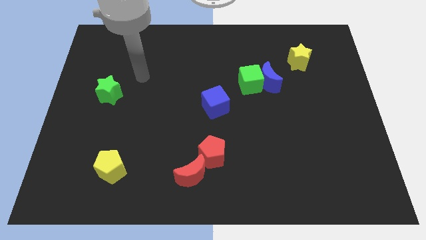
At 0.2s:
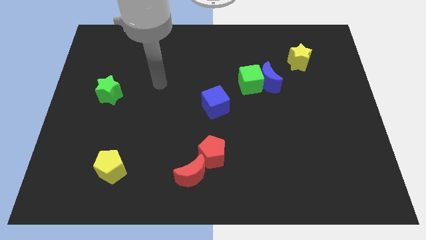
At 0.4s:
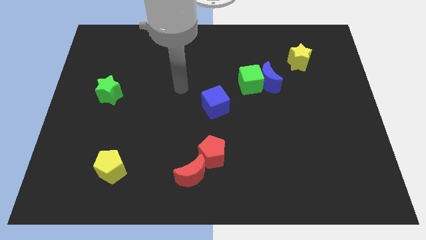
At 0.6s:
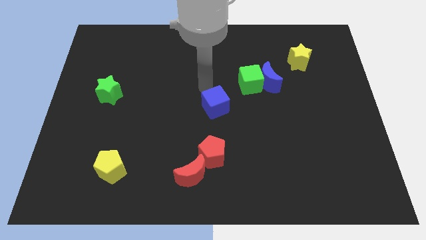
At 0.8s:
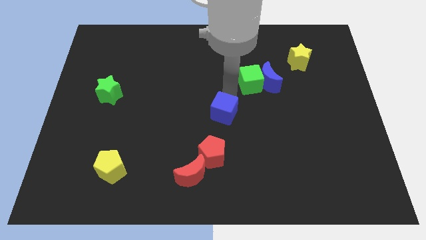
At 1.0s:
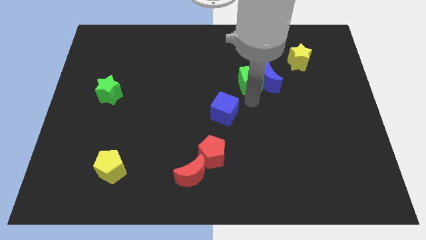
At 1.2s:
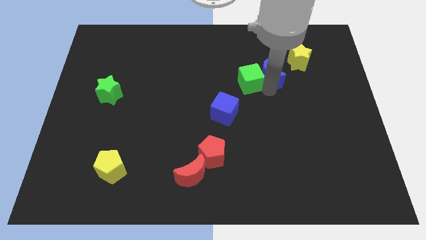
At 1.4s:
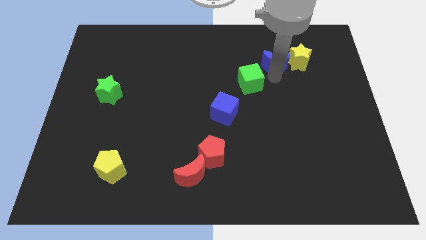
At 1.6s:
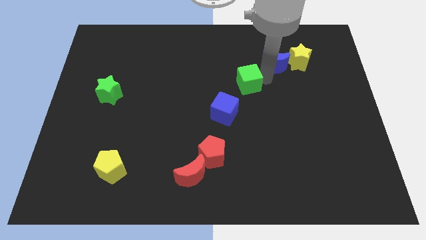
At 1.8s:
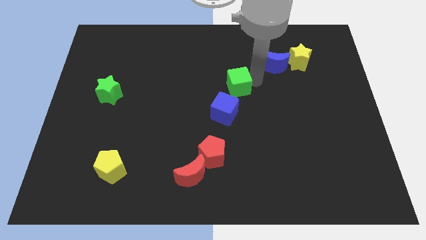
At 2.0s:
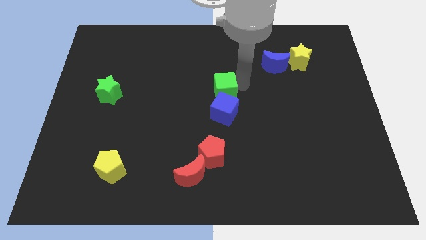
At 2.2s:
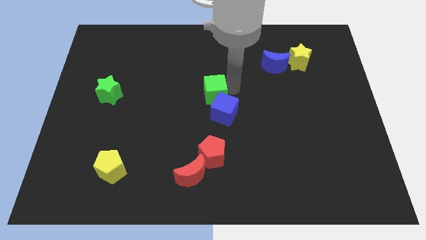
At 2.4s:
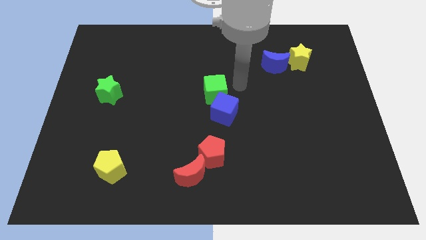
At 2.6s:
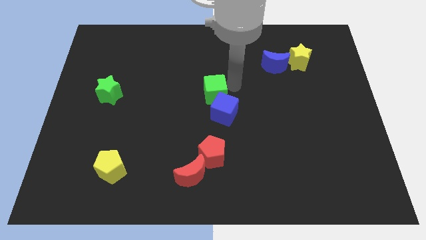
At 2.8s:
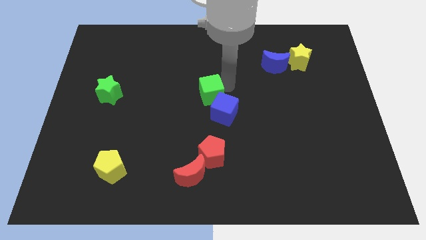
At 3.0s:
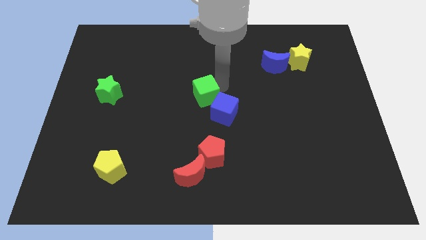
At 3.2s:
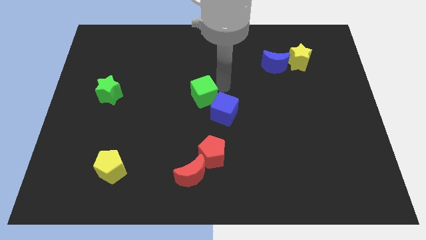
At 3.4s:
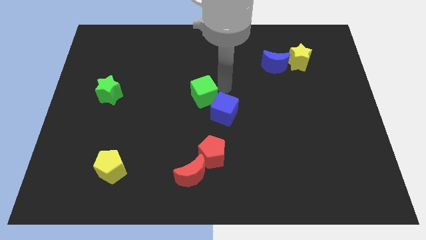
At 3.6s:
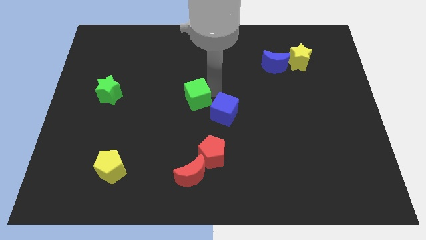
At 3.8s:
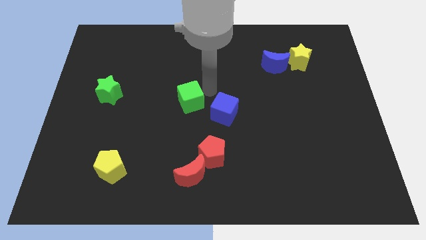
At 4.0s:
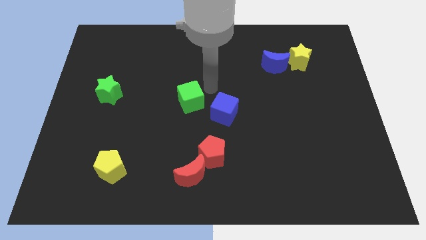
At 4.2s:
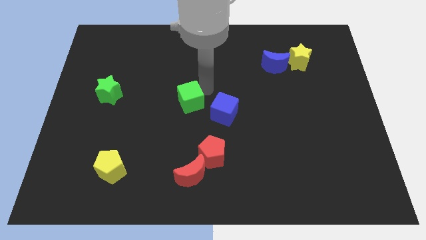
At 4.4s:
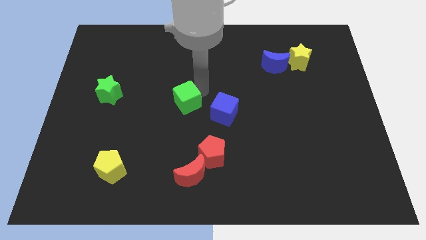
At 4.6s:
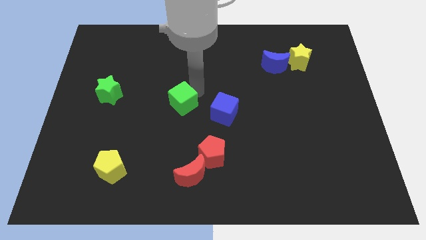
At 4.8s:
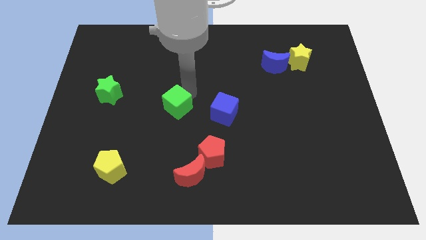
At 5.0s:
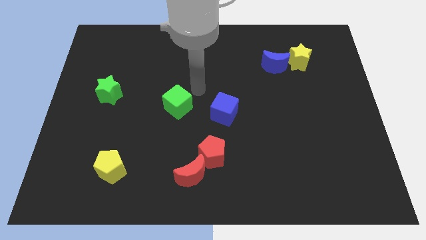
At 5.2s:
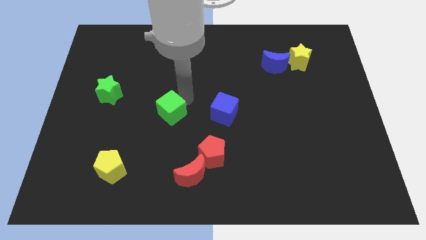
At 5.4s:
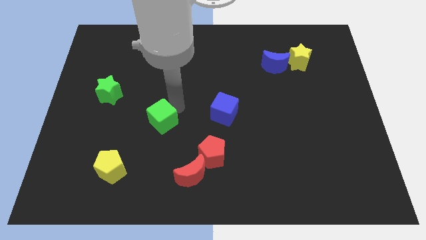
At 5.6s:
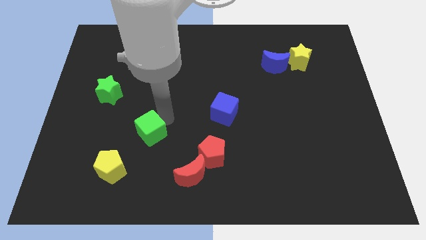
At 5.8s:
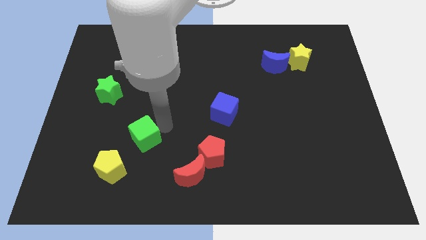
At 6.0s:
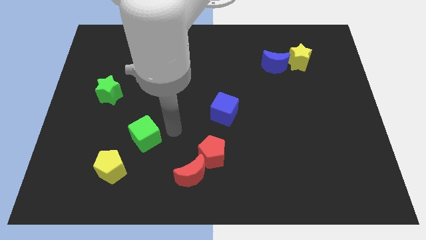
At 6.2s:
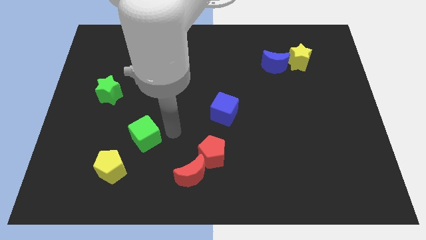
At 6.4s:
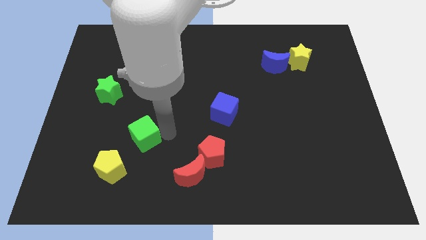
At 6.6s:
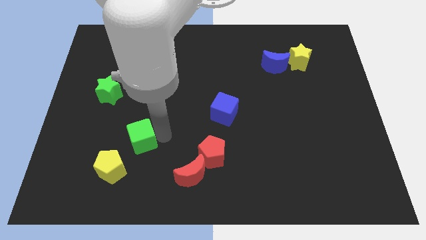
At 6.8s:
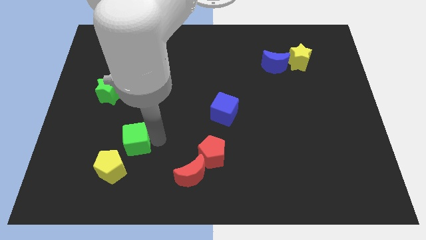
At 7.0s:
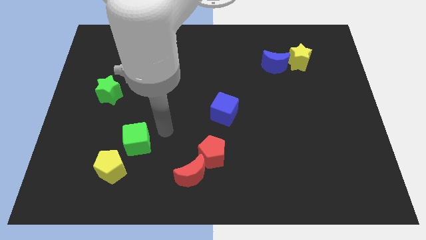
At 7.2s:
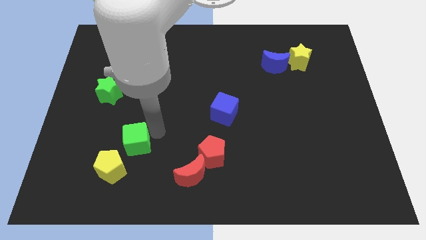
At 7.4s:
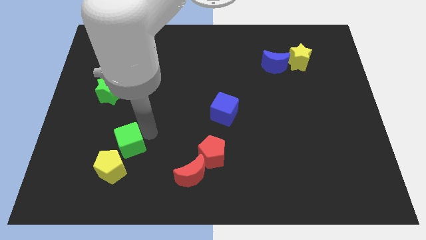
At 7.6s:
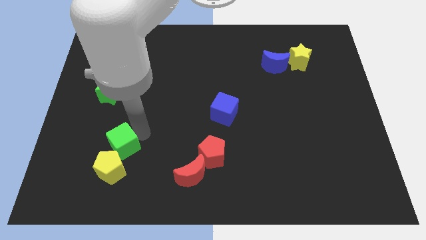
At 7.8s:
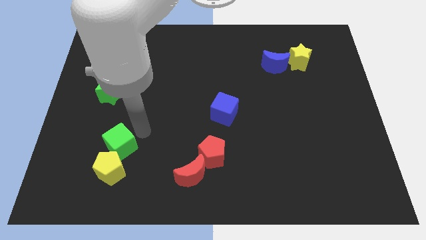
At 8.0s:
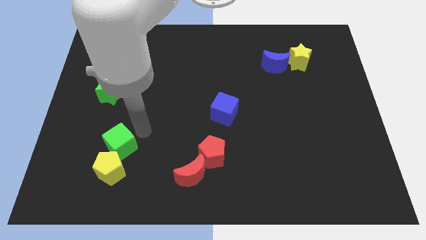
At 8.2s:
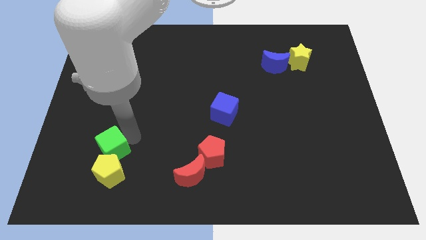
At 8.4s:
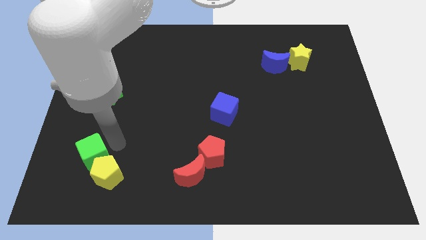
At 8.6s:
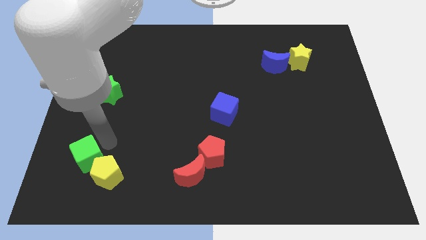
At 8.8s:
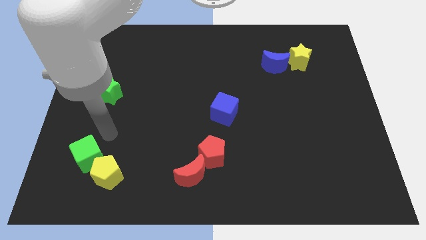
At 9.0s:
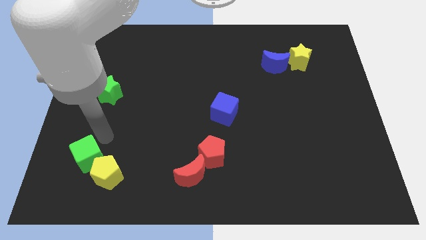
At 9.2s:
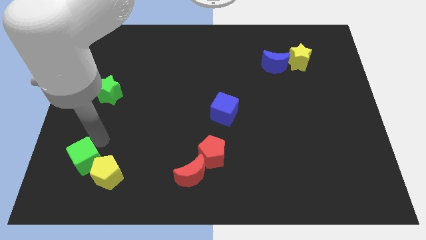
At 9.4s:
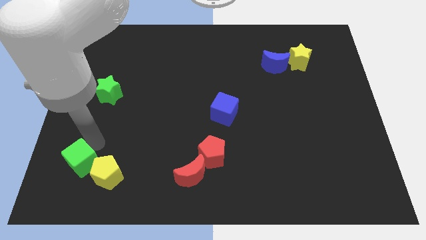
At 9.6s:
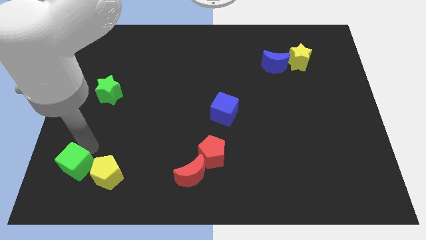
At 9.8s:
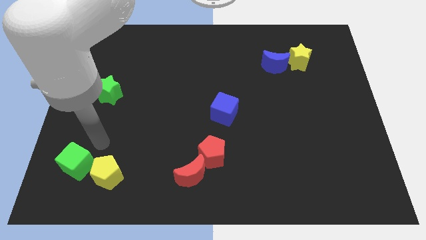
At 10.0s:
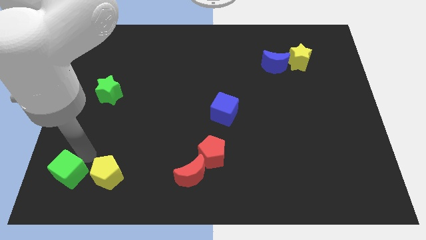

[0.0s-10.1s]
slide the green cube to the bottom left of the board

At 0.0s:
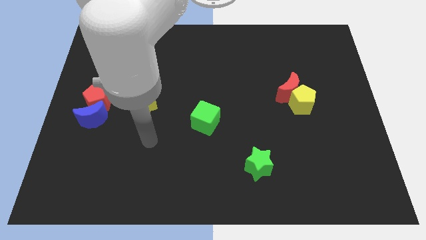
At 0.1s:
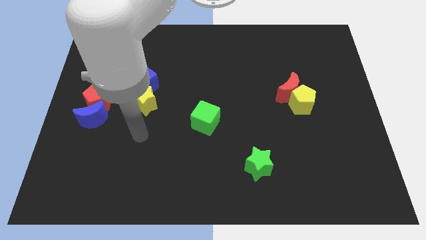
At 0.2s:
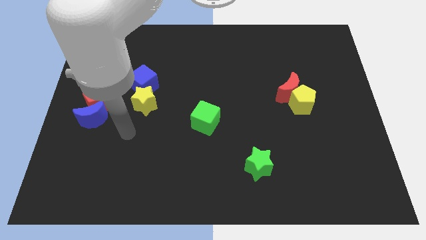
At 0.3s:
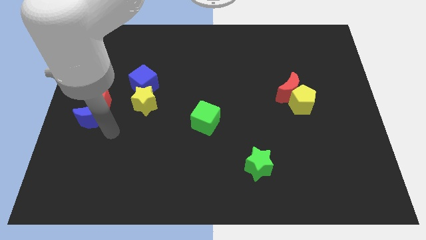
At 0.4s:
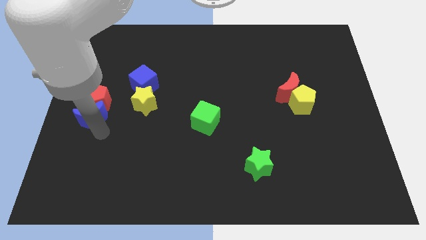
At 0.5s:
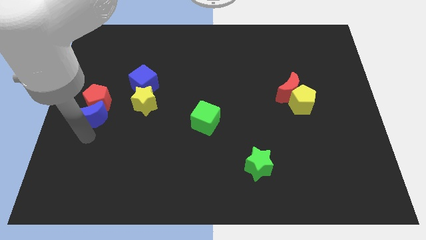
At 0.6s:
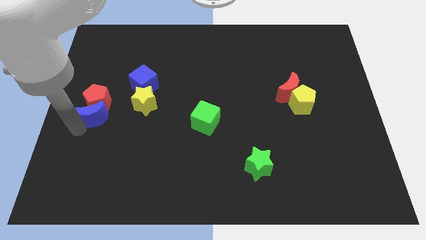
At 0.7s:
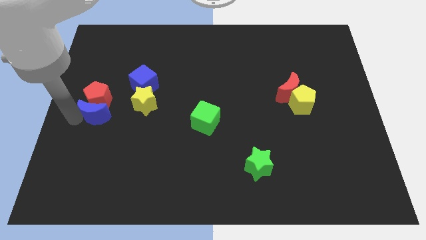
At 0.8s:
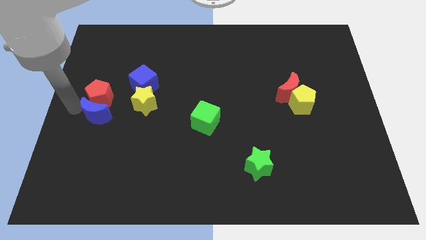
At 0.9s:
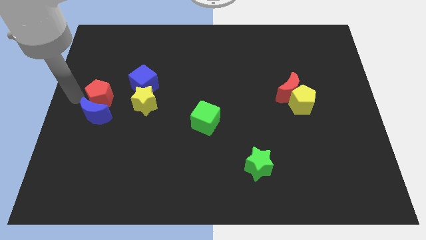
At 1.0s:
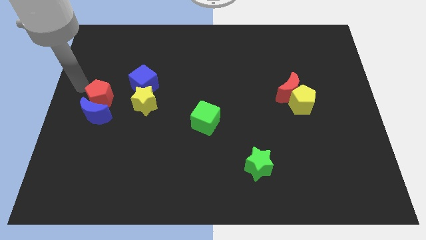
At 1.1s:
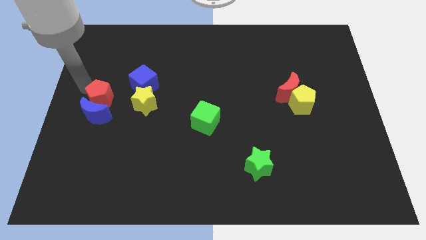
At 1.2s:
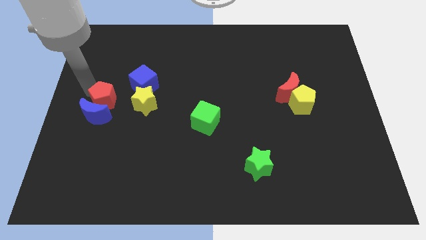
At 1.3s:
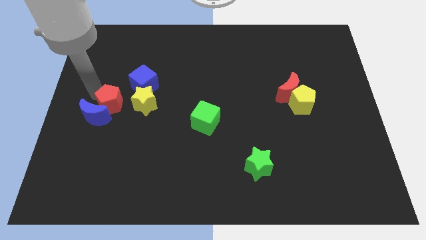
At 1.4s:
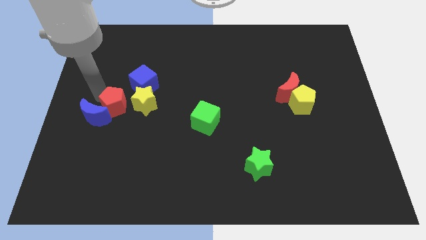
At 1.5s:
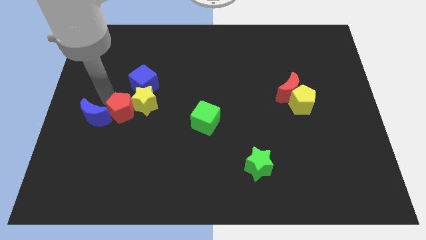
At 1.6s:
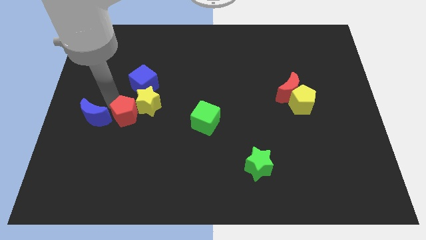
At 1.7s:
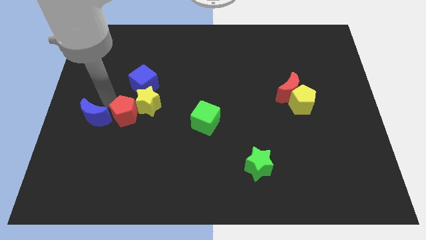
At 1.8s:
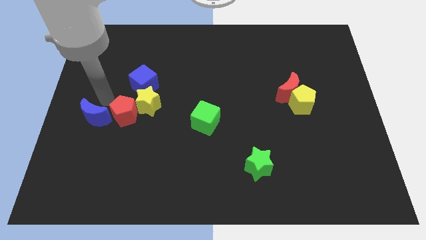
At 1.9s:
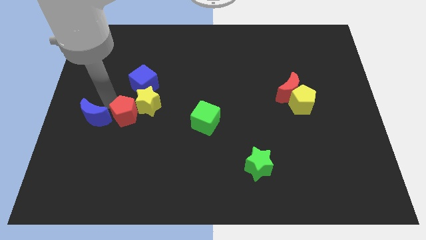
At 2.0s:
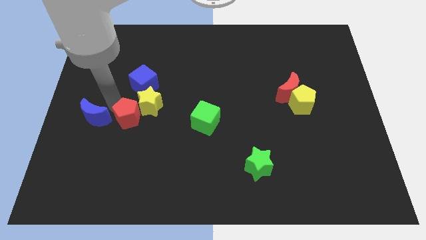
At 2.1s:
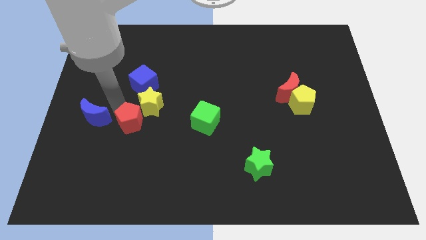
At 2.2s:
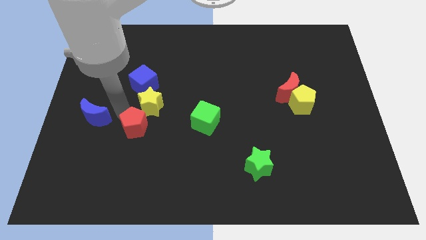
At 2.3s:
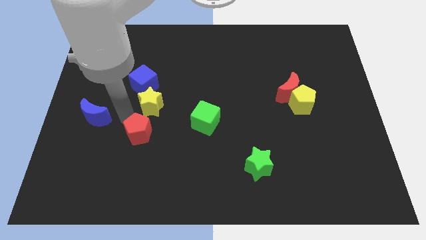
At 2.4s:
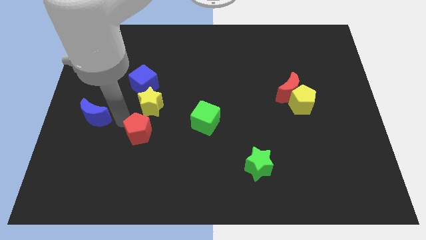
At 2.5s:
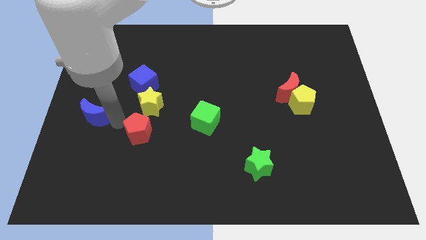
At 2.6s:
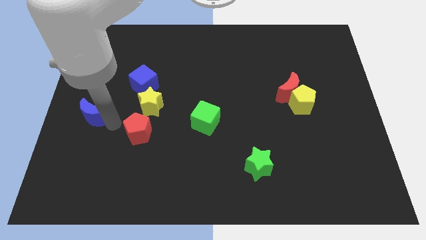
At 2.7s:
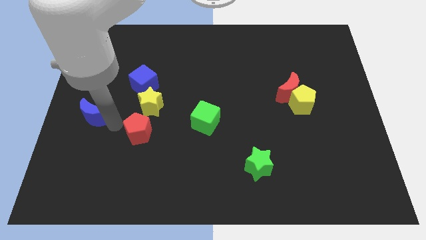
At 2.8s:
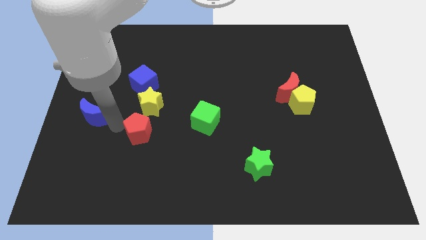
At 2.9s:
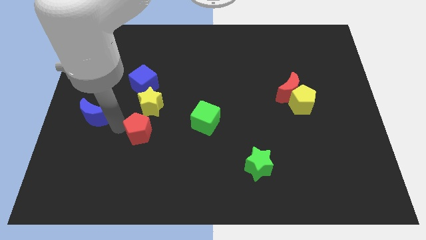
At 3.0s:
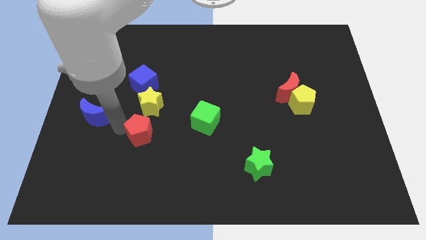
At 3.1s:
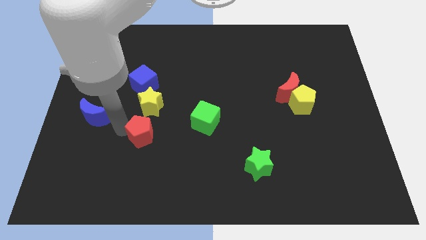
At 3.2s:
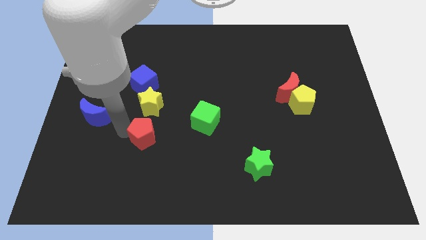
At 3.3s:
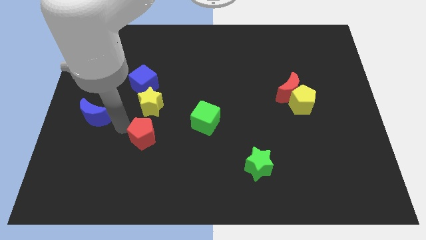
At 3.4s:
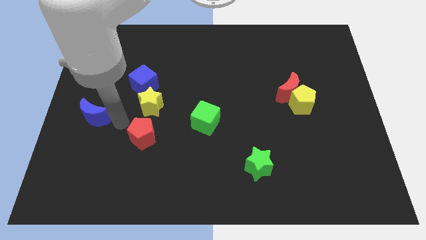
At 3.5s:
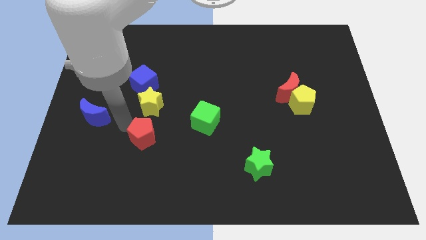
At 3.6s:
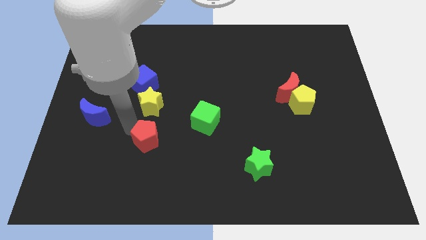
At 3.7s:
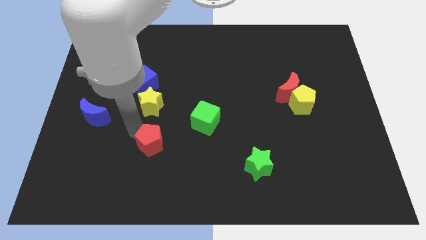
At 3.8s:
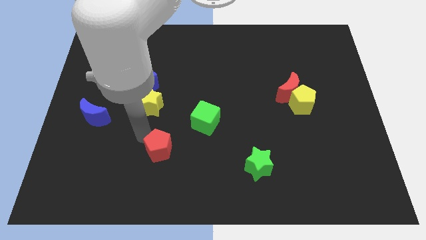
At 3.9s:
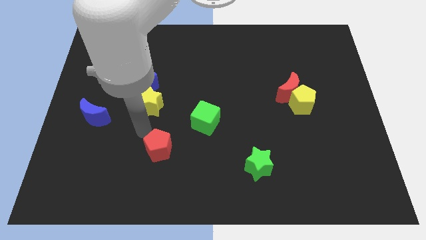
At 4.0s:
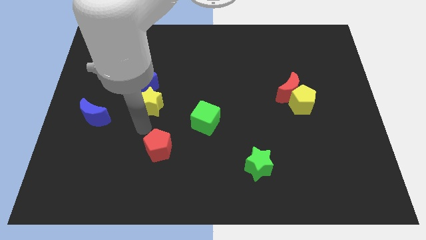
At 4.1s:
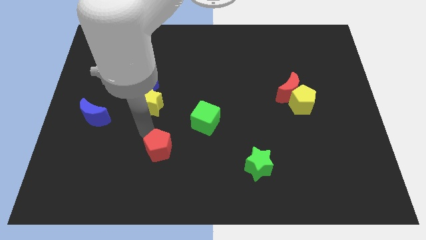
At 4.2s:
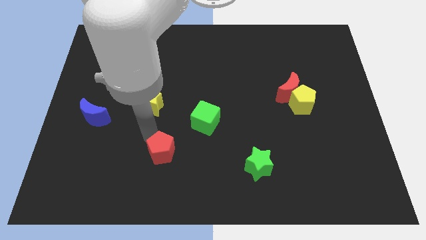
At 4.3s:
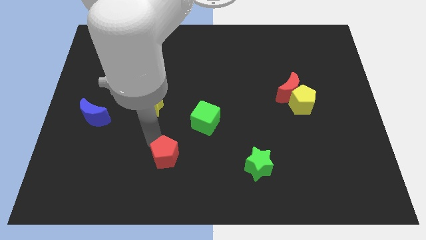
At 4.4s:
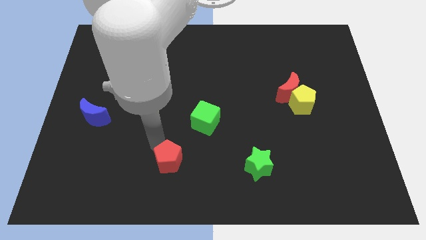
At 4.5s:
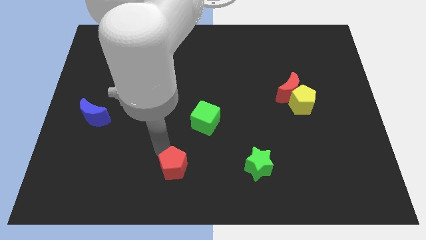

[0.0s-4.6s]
move the red pentagon to the bottom side
